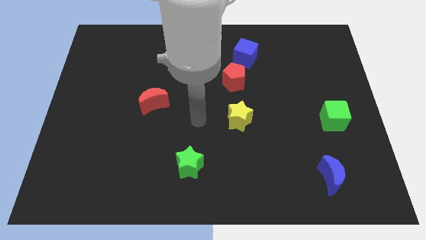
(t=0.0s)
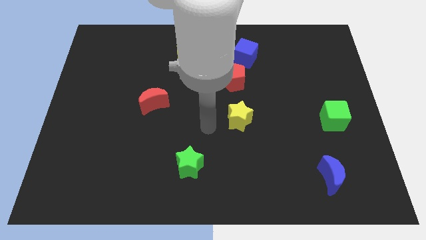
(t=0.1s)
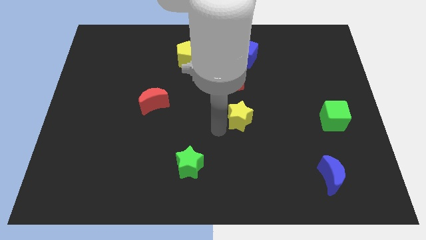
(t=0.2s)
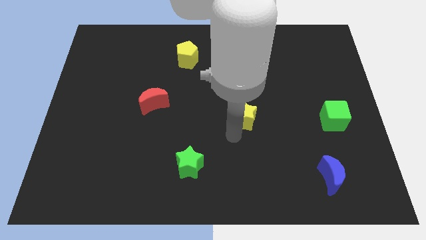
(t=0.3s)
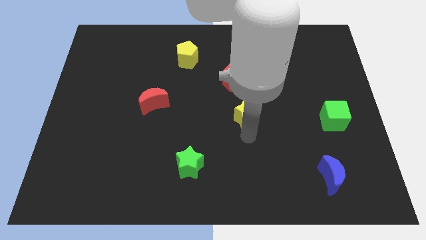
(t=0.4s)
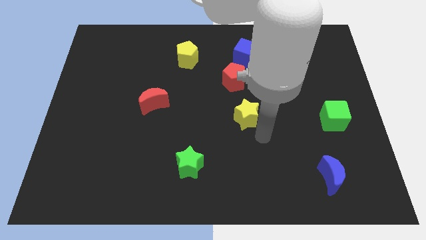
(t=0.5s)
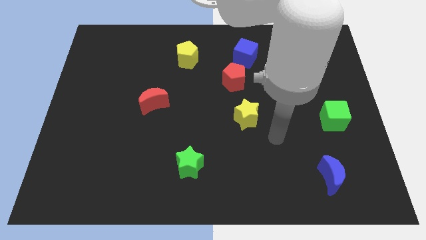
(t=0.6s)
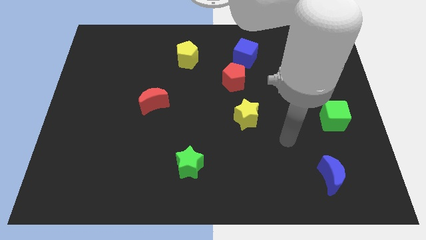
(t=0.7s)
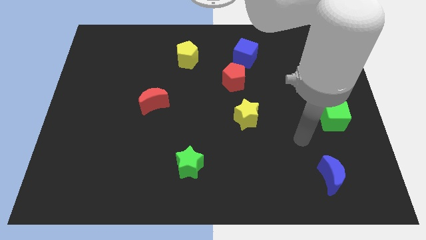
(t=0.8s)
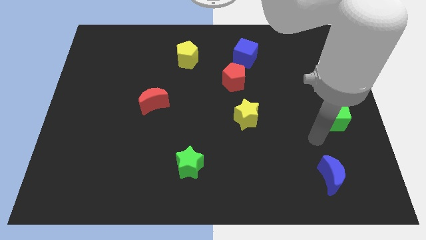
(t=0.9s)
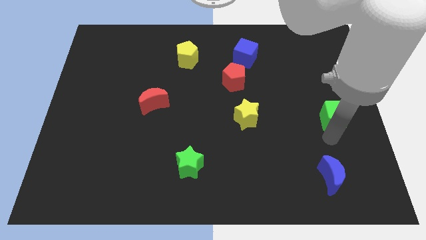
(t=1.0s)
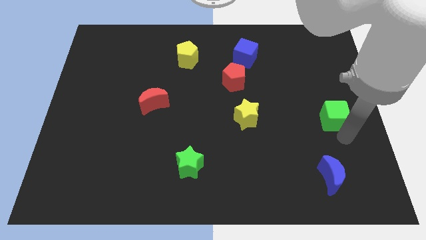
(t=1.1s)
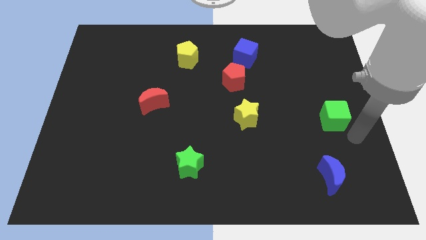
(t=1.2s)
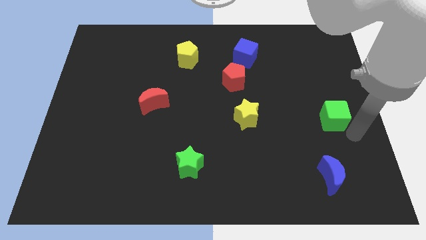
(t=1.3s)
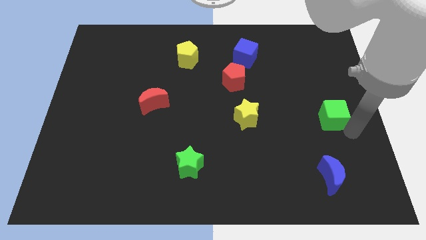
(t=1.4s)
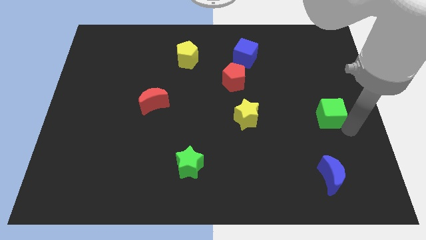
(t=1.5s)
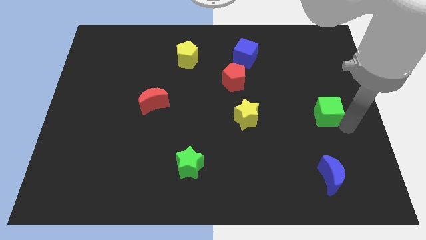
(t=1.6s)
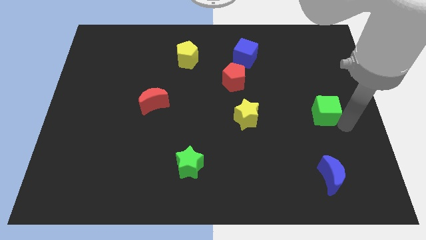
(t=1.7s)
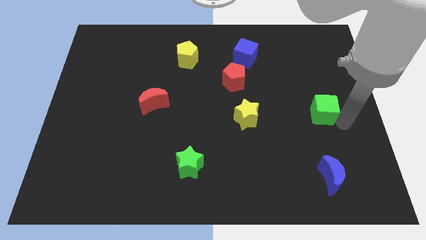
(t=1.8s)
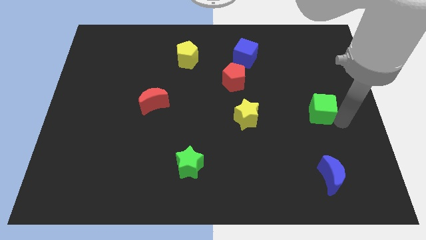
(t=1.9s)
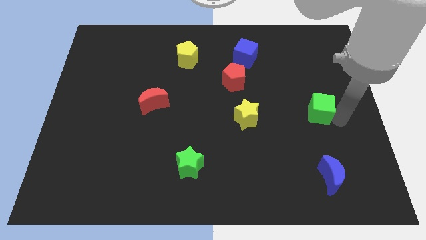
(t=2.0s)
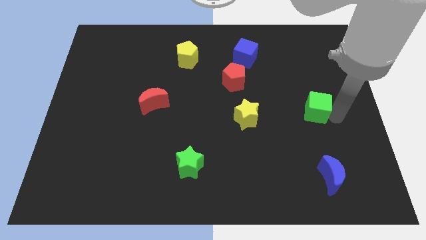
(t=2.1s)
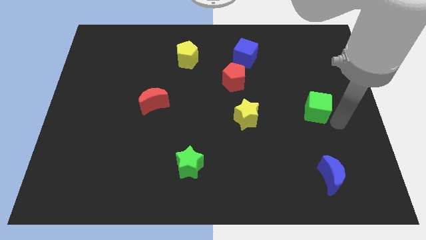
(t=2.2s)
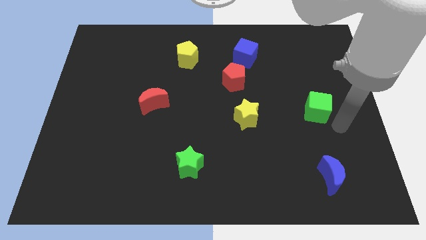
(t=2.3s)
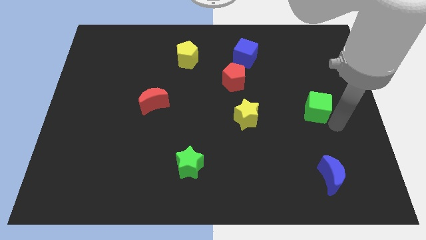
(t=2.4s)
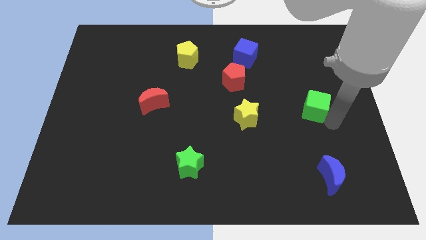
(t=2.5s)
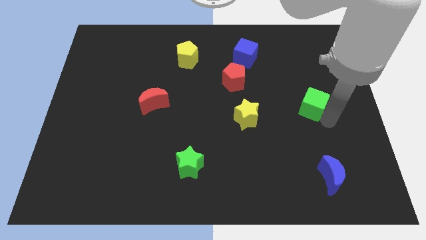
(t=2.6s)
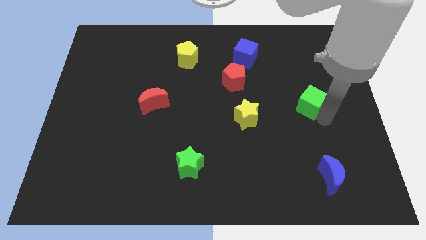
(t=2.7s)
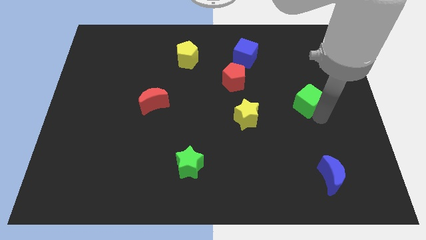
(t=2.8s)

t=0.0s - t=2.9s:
slide the green cube a little up and to the left diagonally

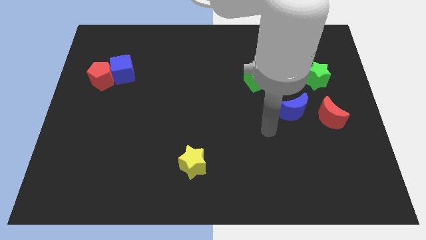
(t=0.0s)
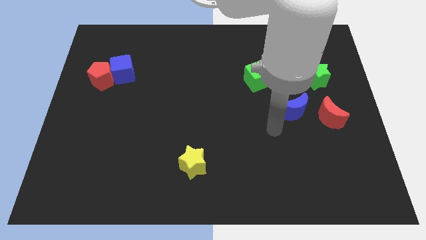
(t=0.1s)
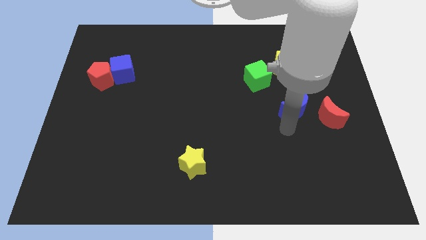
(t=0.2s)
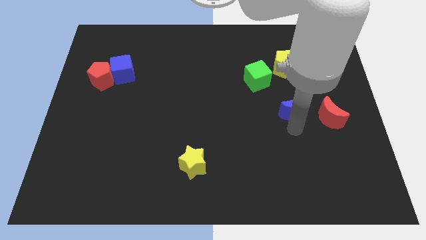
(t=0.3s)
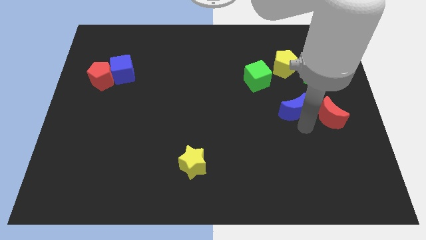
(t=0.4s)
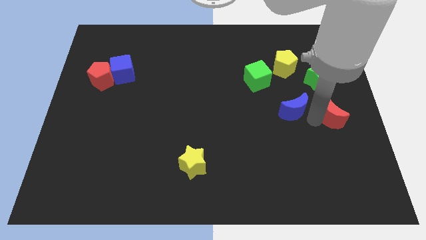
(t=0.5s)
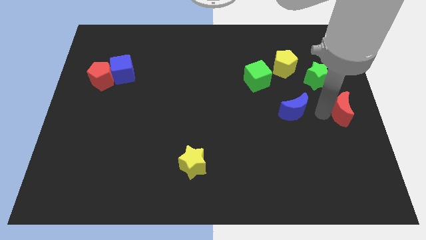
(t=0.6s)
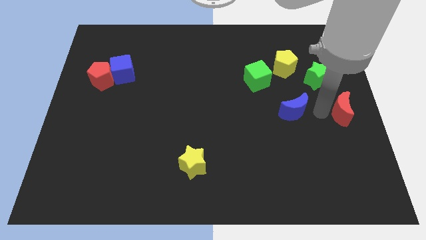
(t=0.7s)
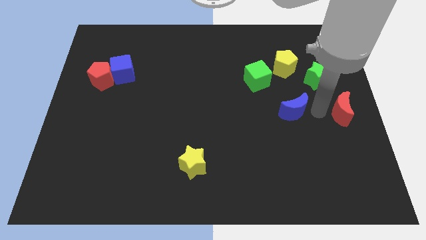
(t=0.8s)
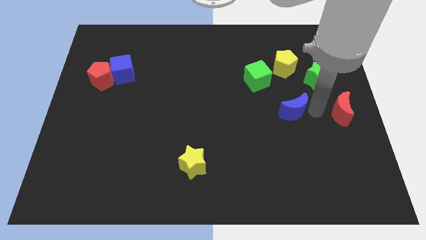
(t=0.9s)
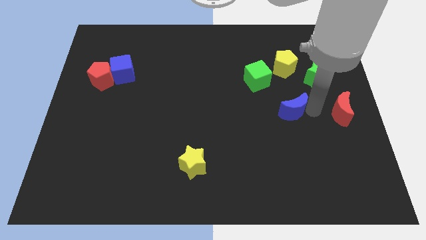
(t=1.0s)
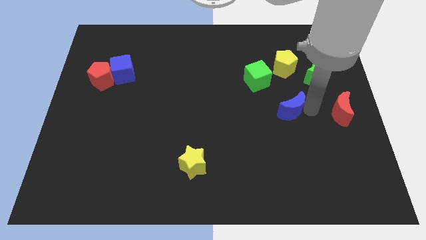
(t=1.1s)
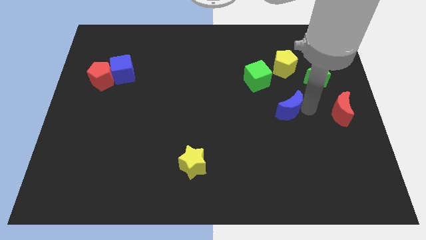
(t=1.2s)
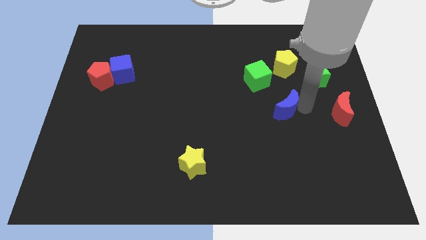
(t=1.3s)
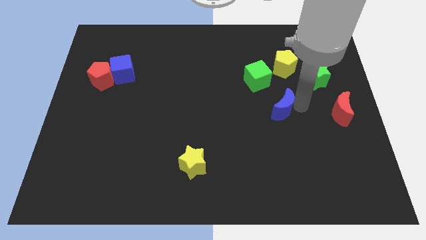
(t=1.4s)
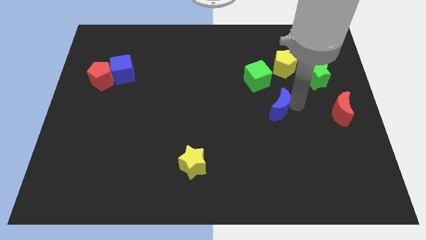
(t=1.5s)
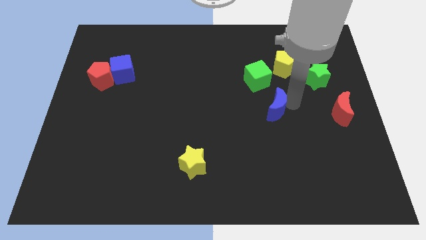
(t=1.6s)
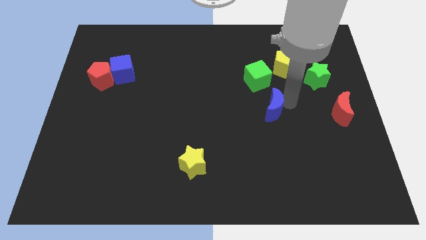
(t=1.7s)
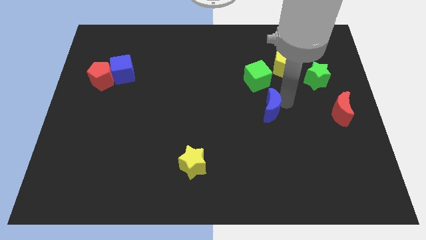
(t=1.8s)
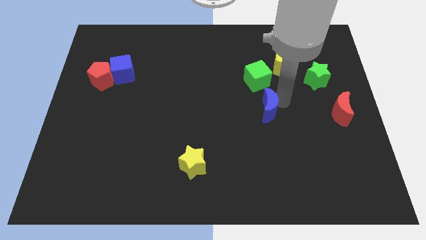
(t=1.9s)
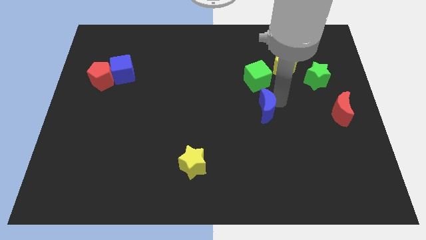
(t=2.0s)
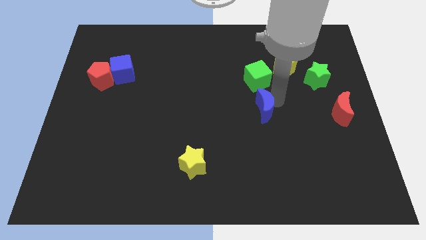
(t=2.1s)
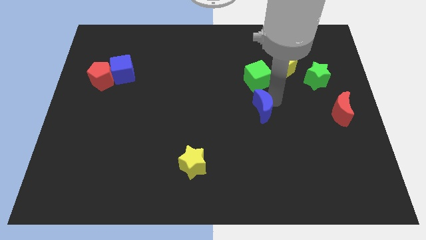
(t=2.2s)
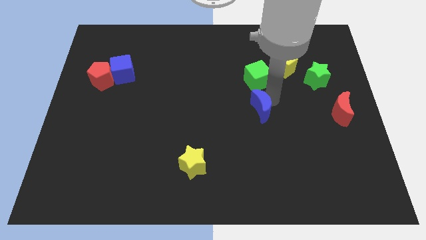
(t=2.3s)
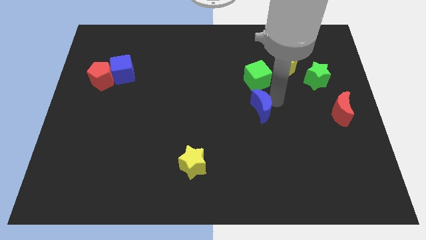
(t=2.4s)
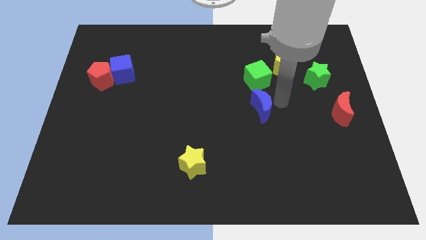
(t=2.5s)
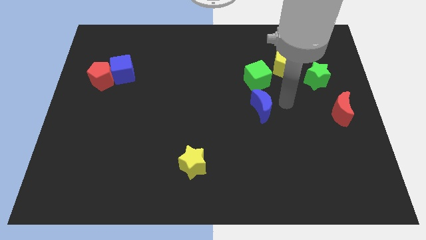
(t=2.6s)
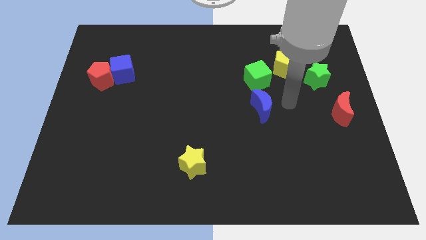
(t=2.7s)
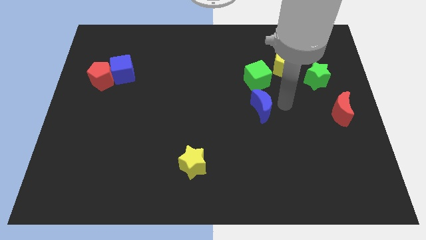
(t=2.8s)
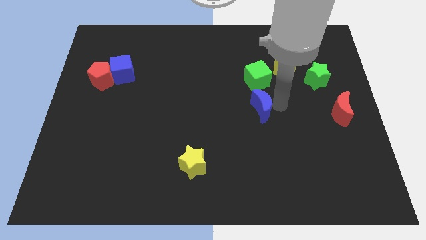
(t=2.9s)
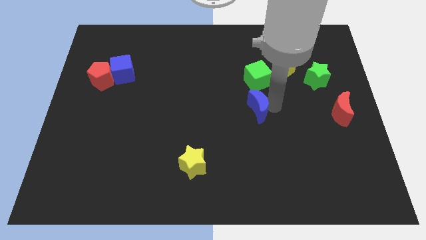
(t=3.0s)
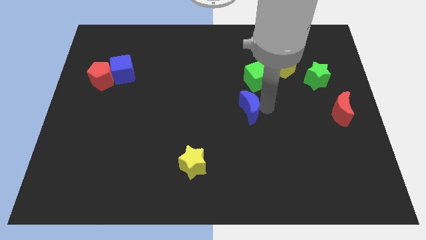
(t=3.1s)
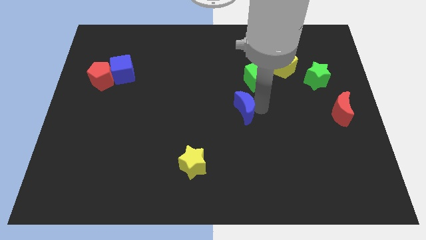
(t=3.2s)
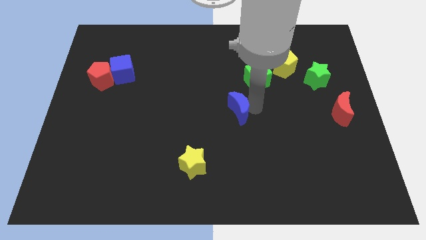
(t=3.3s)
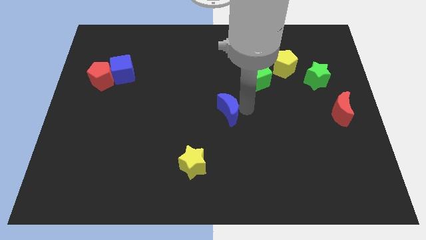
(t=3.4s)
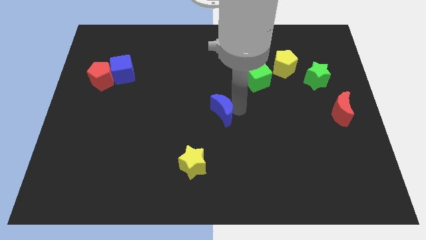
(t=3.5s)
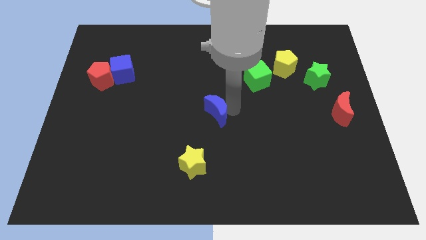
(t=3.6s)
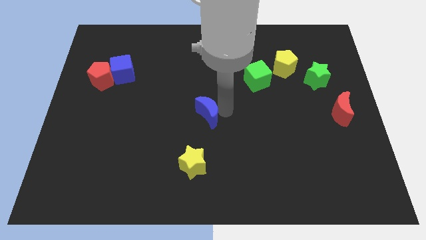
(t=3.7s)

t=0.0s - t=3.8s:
move the blue moon to the left

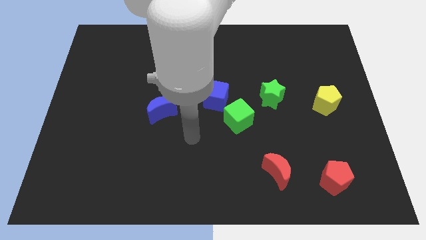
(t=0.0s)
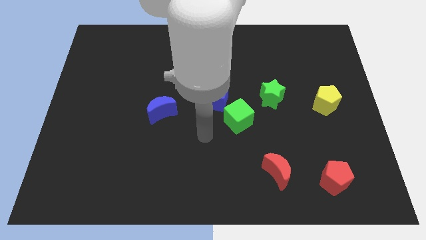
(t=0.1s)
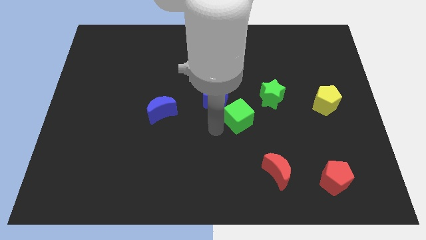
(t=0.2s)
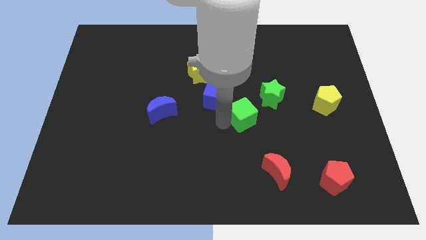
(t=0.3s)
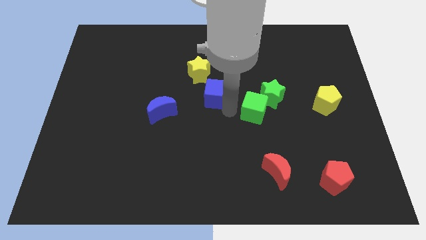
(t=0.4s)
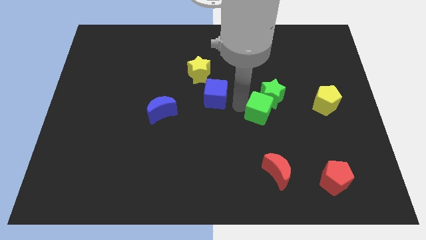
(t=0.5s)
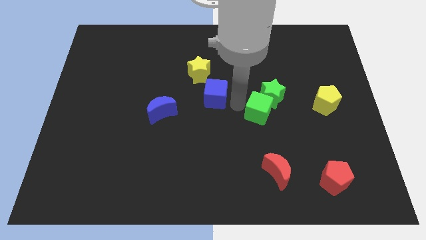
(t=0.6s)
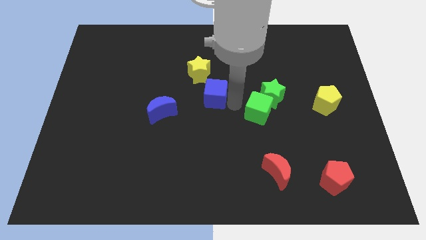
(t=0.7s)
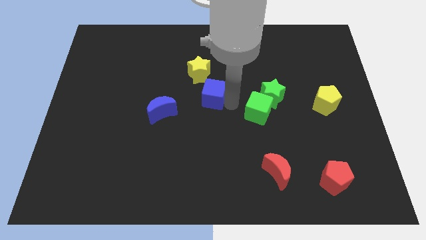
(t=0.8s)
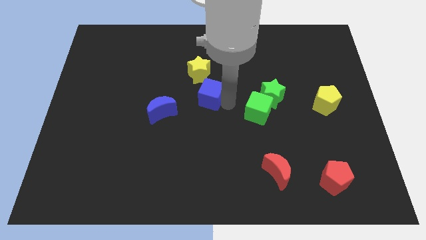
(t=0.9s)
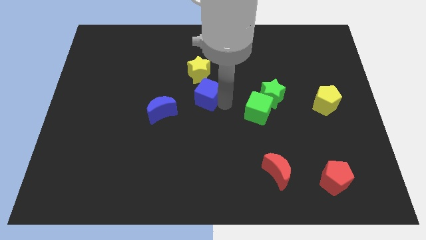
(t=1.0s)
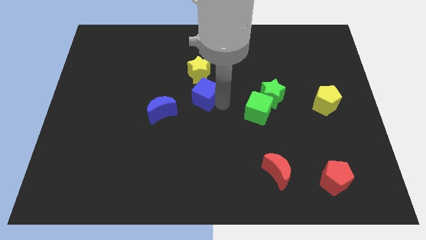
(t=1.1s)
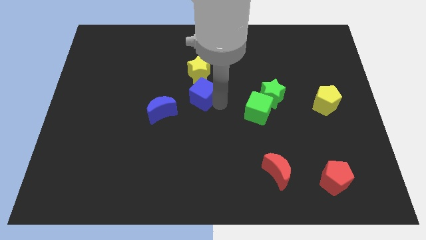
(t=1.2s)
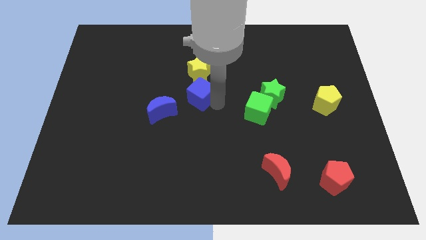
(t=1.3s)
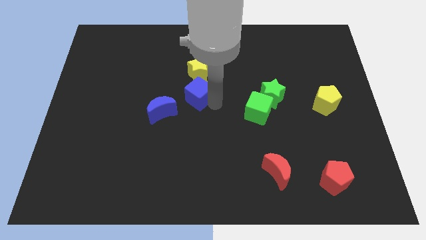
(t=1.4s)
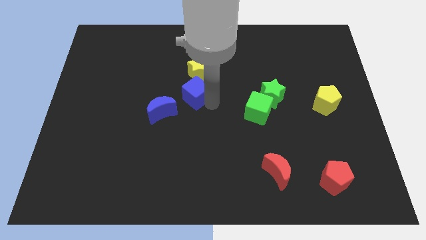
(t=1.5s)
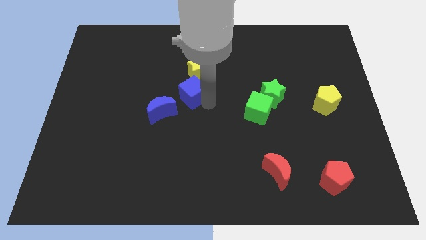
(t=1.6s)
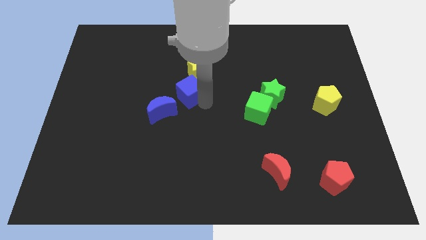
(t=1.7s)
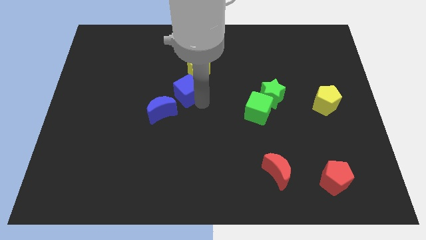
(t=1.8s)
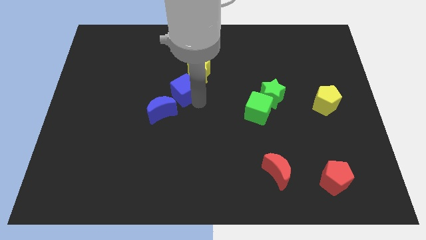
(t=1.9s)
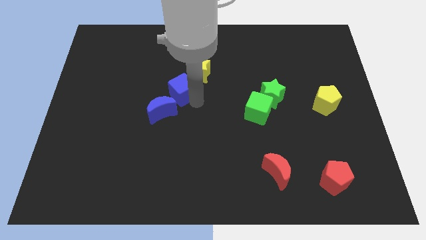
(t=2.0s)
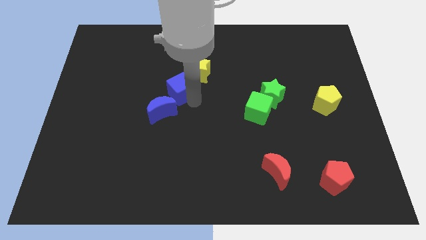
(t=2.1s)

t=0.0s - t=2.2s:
move the blue cube diagonally upwards and left a little bit
